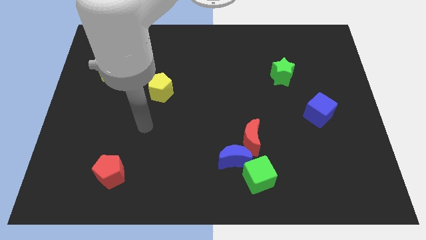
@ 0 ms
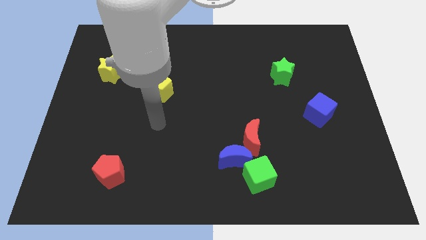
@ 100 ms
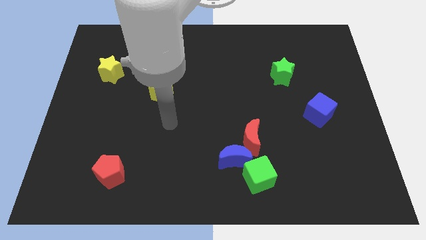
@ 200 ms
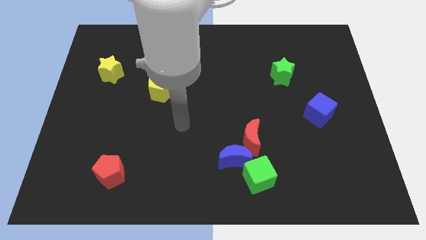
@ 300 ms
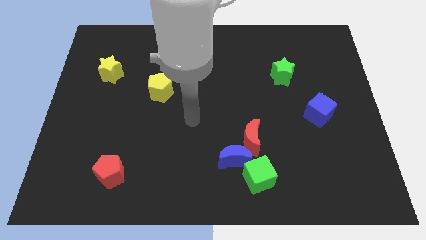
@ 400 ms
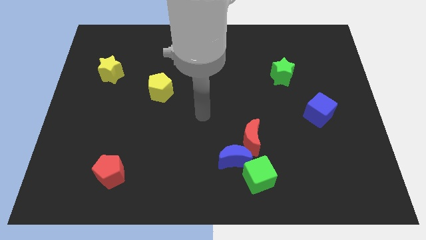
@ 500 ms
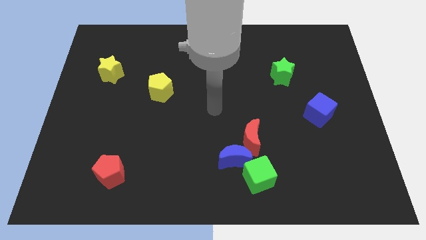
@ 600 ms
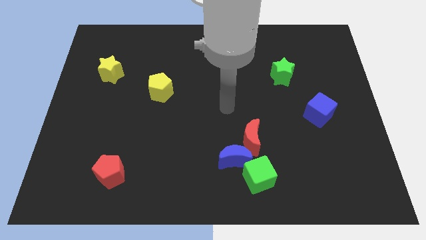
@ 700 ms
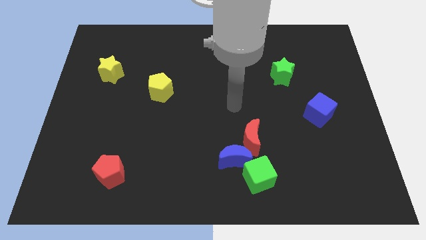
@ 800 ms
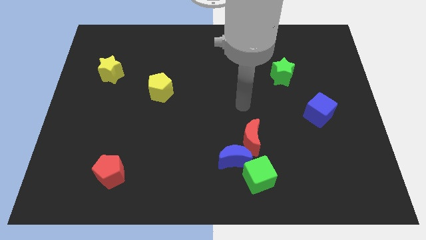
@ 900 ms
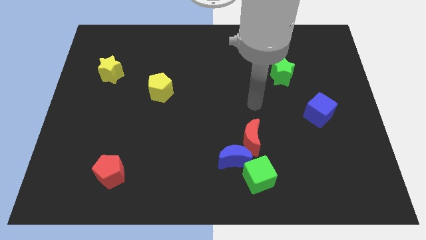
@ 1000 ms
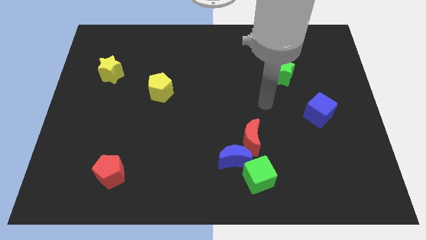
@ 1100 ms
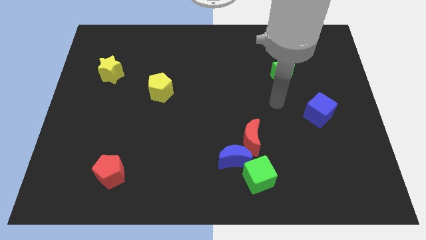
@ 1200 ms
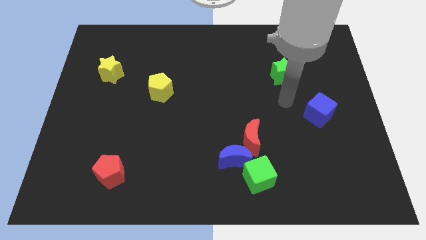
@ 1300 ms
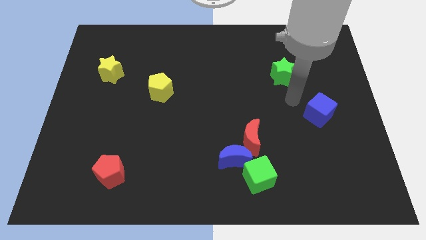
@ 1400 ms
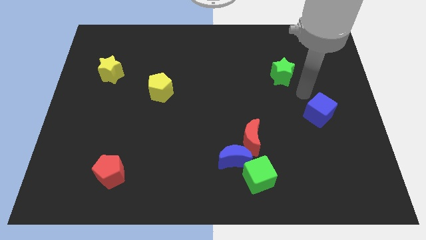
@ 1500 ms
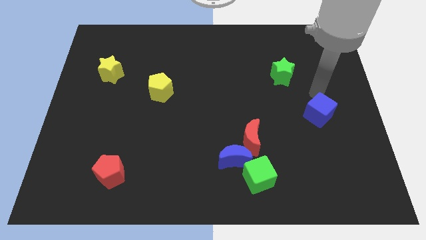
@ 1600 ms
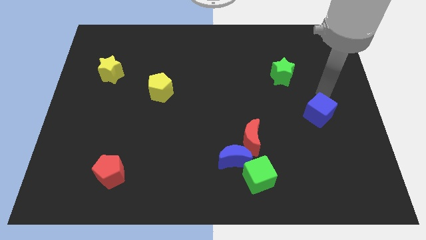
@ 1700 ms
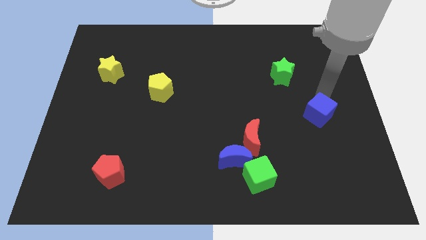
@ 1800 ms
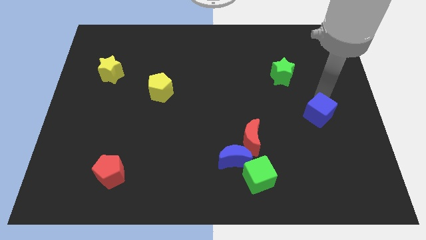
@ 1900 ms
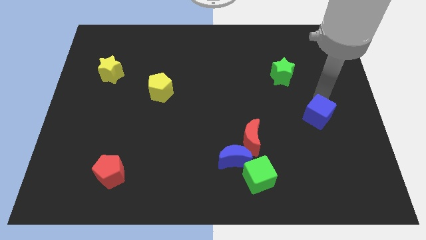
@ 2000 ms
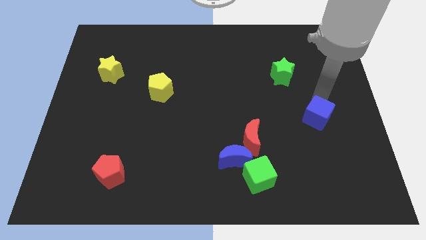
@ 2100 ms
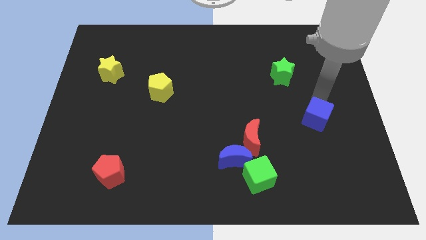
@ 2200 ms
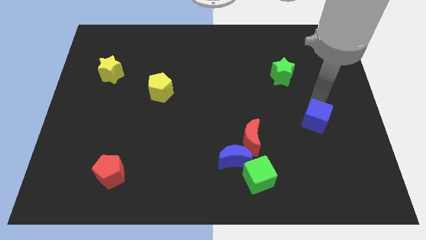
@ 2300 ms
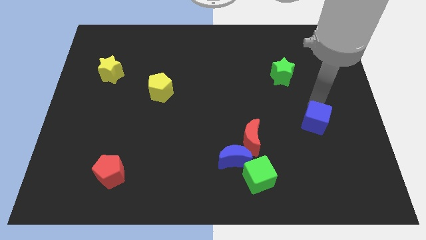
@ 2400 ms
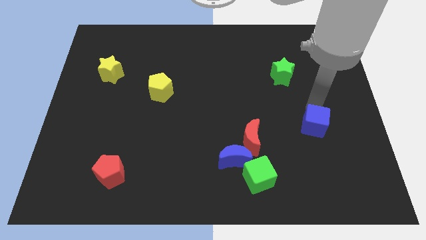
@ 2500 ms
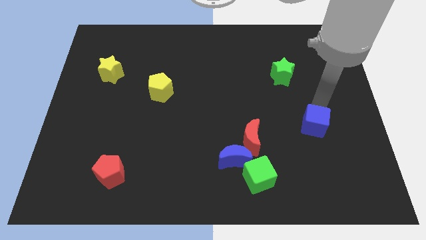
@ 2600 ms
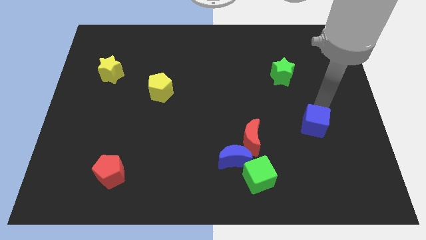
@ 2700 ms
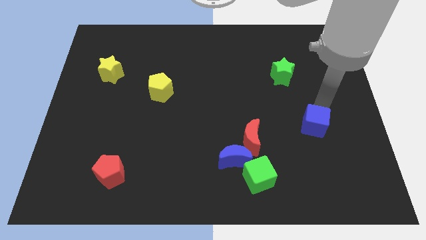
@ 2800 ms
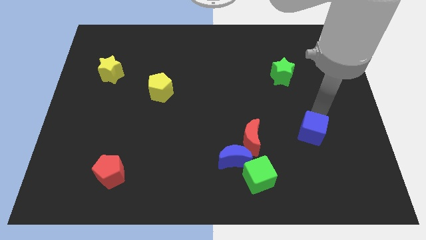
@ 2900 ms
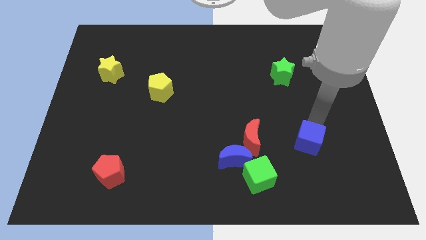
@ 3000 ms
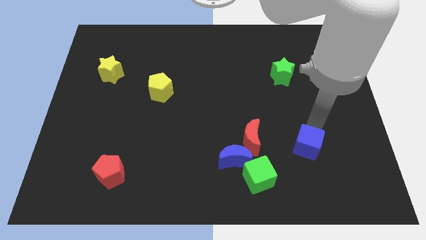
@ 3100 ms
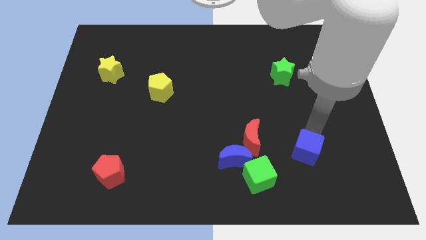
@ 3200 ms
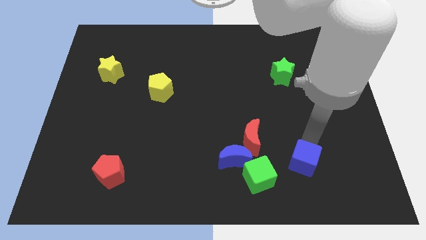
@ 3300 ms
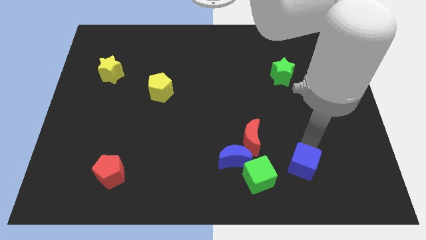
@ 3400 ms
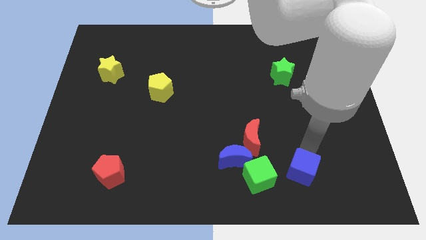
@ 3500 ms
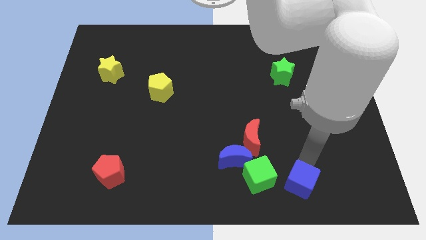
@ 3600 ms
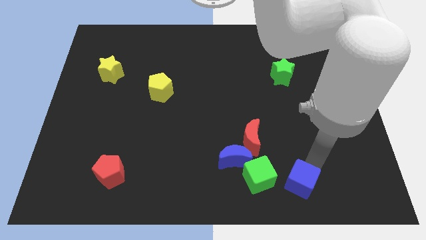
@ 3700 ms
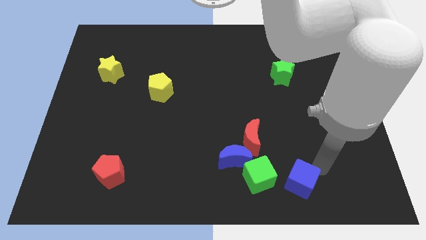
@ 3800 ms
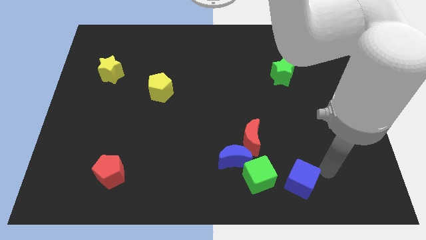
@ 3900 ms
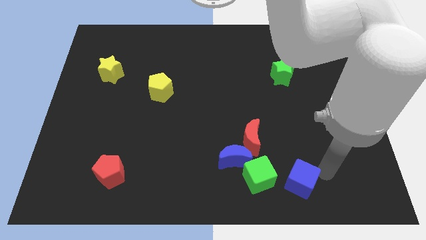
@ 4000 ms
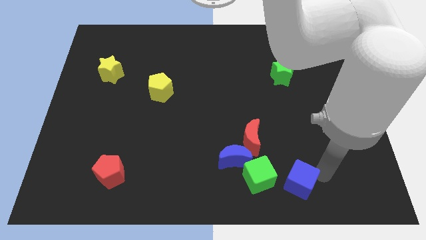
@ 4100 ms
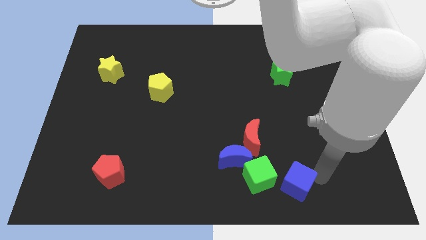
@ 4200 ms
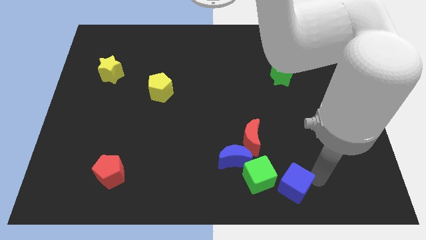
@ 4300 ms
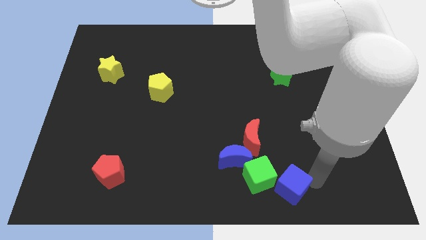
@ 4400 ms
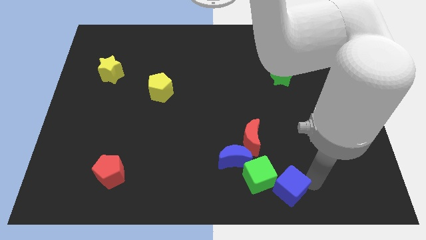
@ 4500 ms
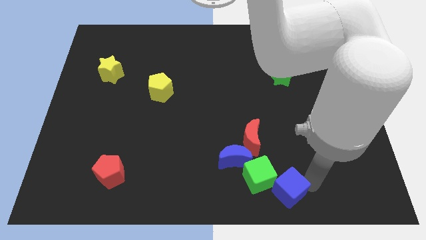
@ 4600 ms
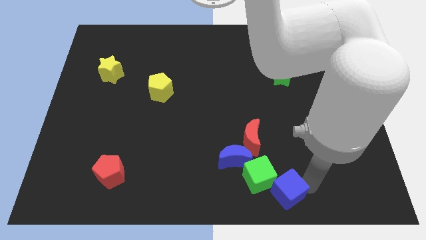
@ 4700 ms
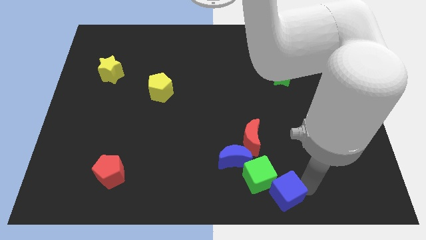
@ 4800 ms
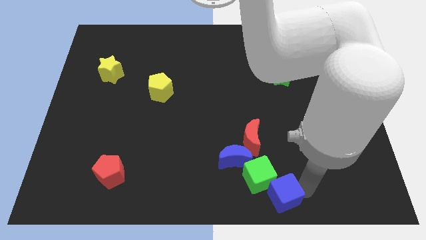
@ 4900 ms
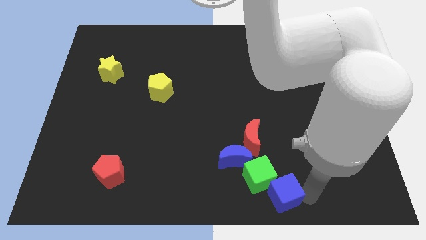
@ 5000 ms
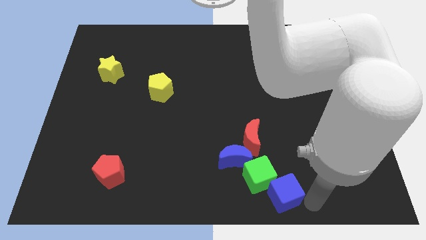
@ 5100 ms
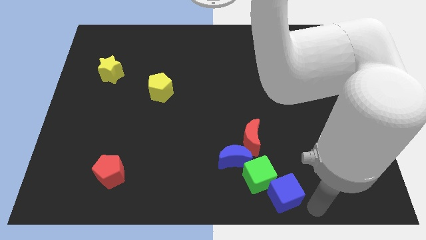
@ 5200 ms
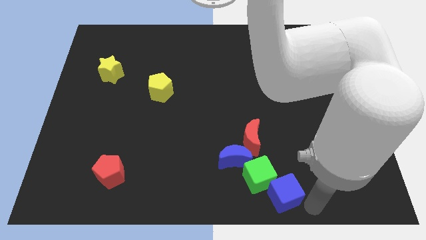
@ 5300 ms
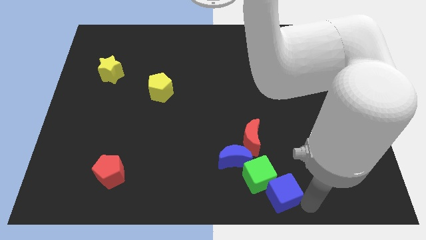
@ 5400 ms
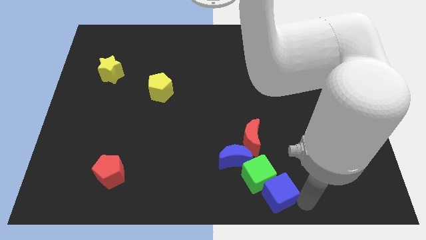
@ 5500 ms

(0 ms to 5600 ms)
push the blue cube to the bottom side of the red moon

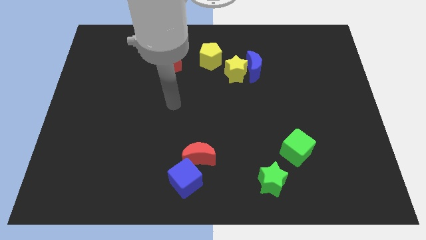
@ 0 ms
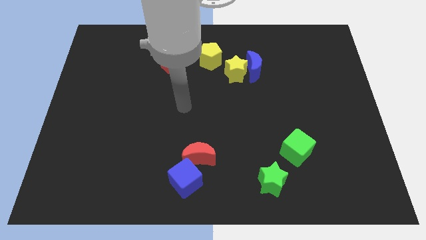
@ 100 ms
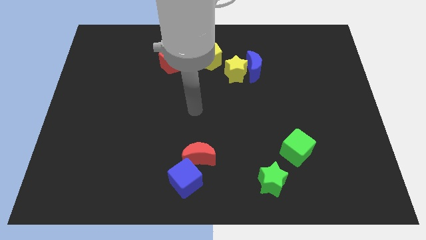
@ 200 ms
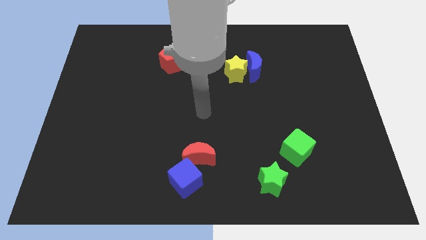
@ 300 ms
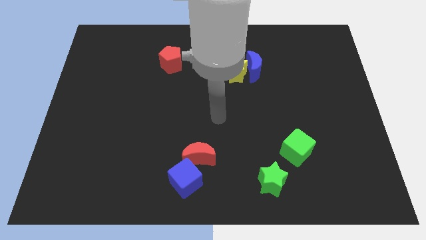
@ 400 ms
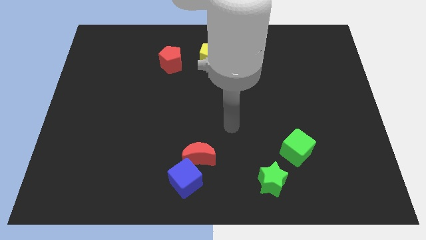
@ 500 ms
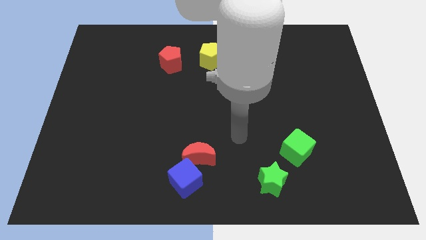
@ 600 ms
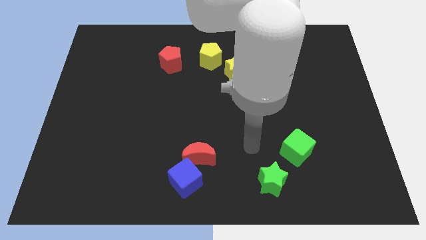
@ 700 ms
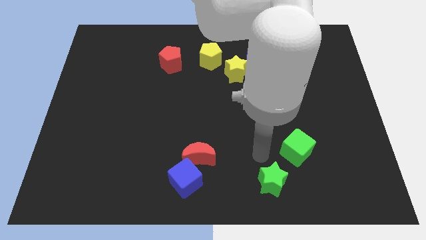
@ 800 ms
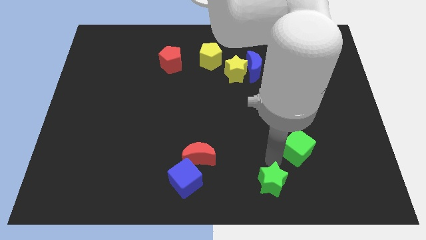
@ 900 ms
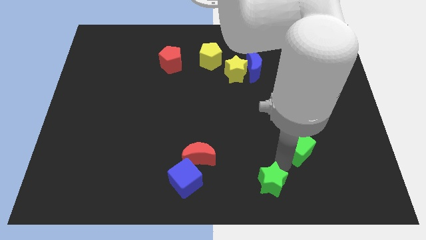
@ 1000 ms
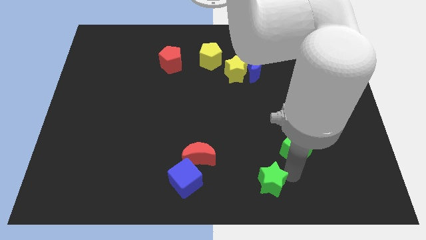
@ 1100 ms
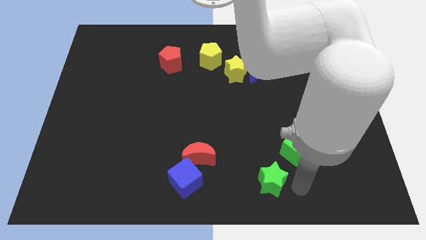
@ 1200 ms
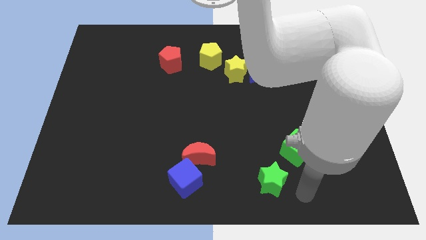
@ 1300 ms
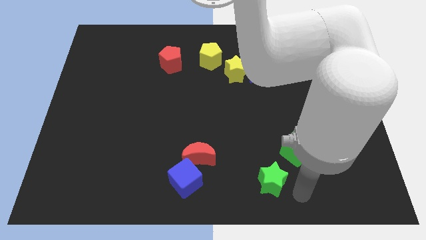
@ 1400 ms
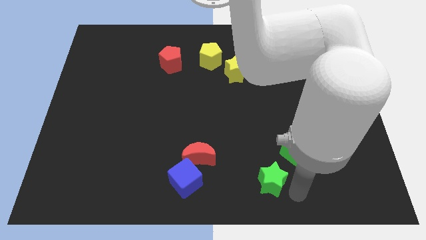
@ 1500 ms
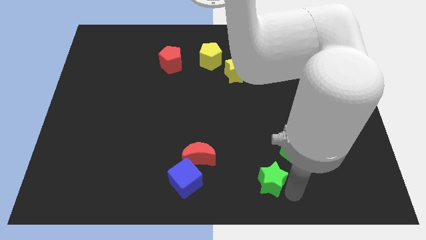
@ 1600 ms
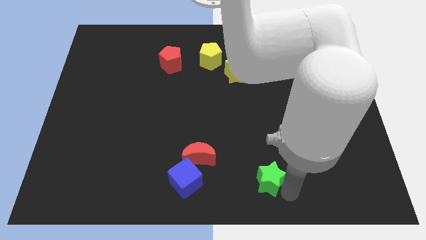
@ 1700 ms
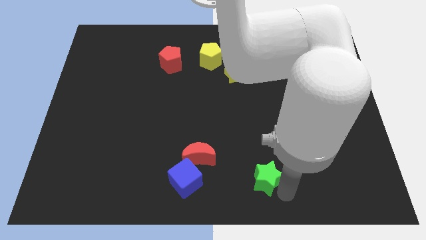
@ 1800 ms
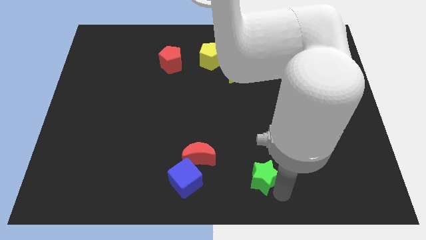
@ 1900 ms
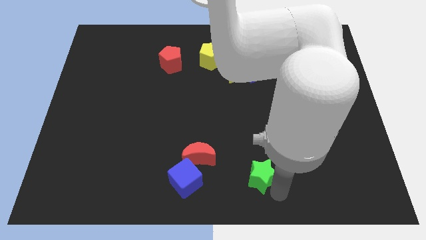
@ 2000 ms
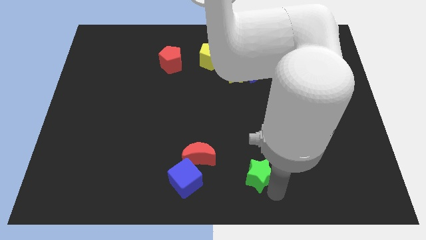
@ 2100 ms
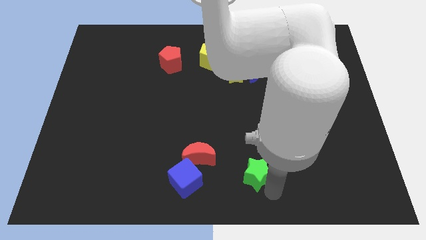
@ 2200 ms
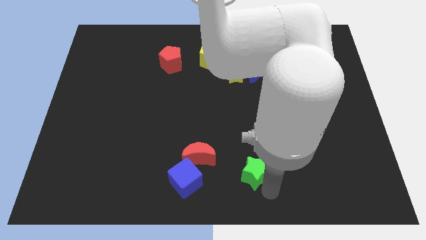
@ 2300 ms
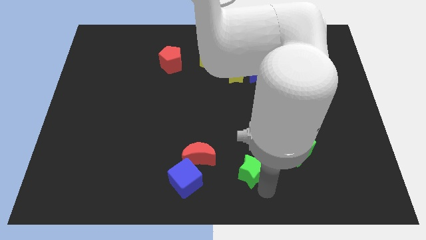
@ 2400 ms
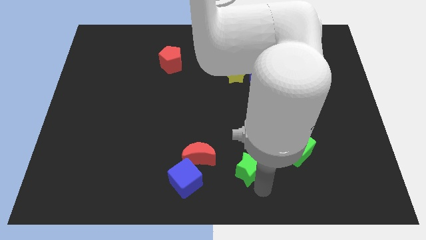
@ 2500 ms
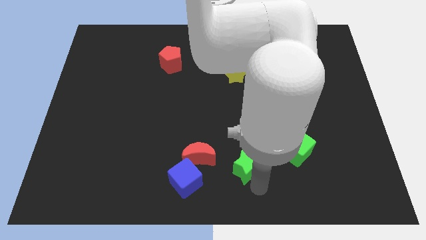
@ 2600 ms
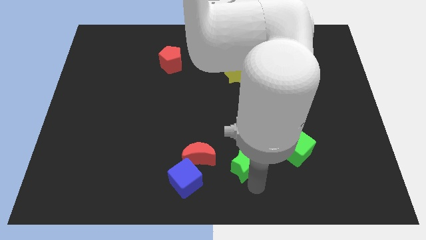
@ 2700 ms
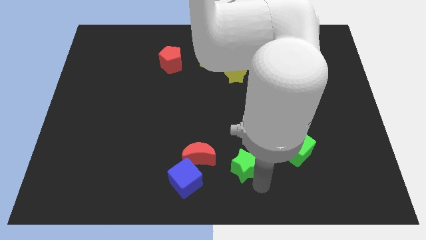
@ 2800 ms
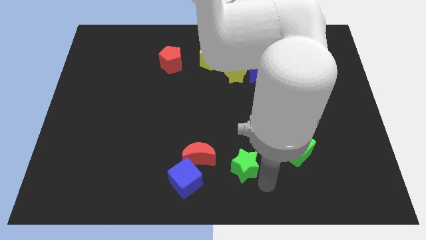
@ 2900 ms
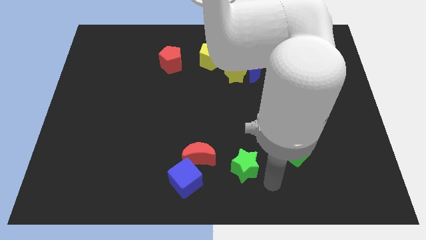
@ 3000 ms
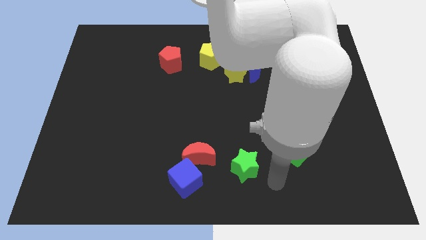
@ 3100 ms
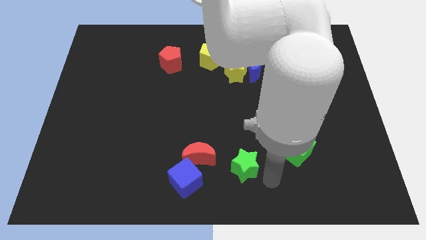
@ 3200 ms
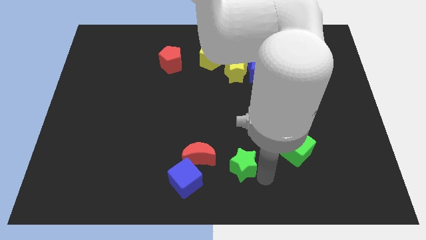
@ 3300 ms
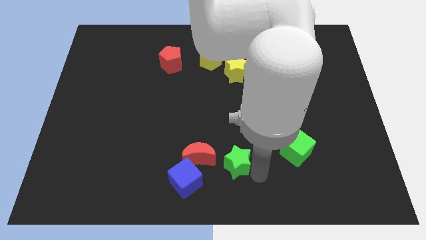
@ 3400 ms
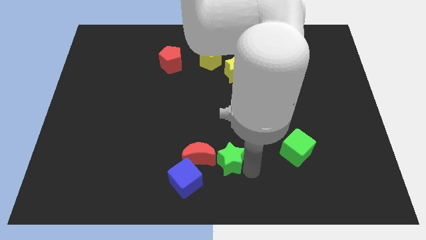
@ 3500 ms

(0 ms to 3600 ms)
move the green star to the top right of the blue cube
